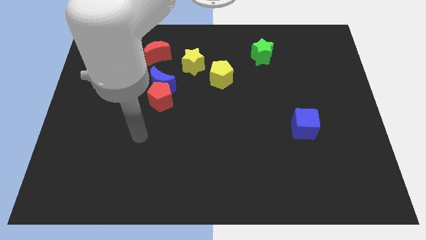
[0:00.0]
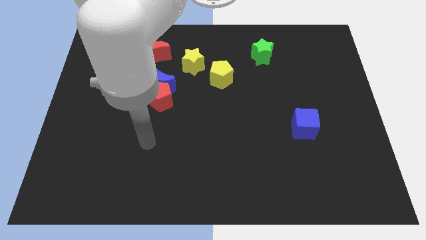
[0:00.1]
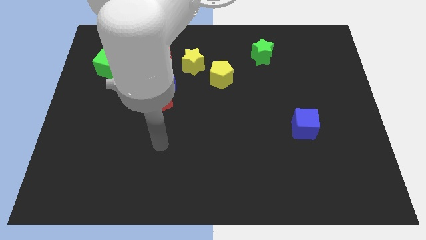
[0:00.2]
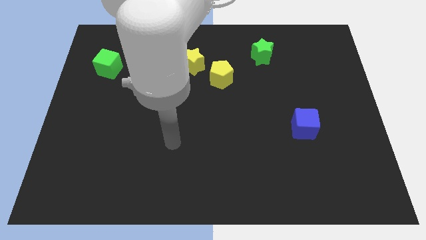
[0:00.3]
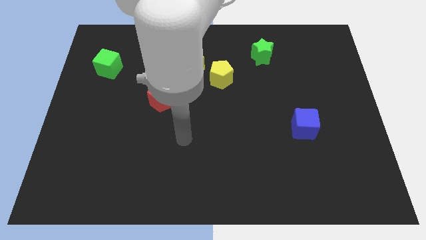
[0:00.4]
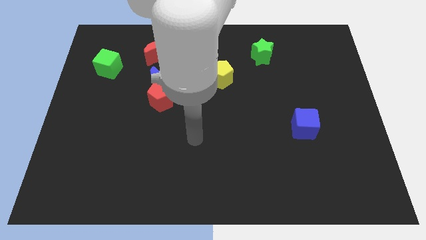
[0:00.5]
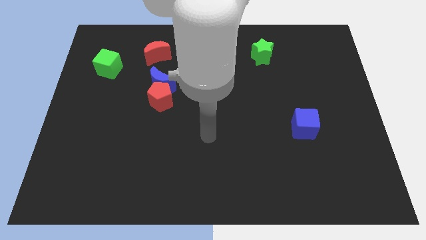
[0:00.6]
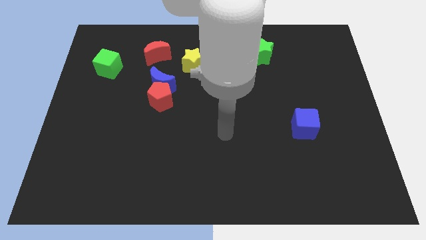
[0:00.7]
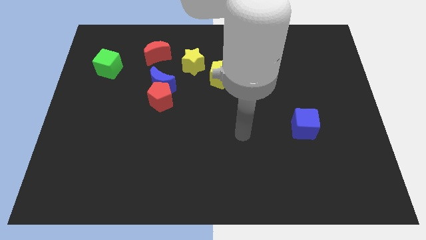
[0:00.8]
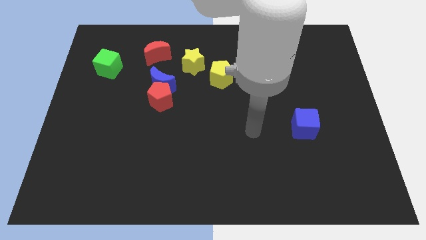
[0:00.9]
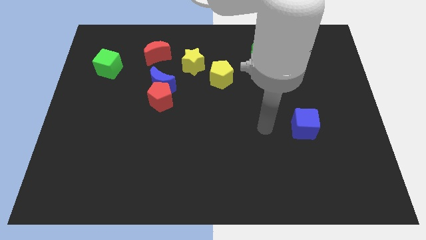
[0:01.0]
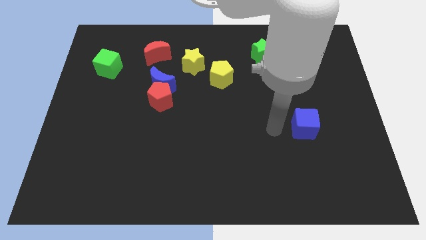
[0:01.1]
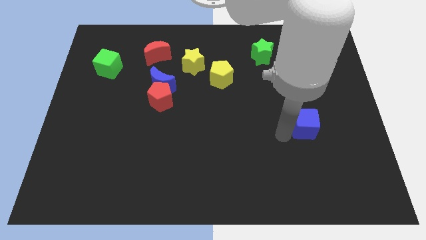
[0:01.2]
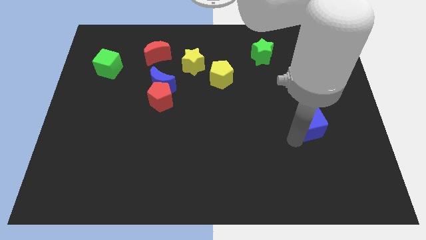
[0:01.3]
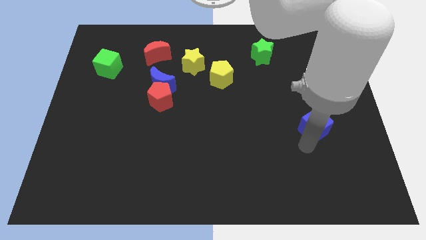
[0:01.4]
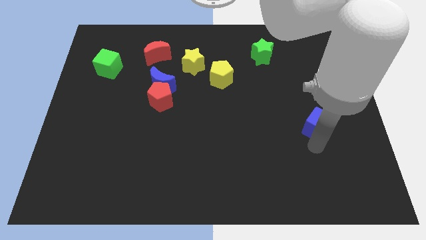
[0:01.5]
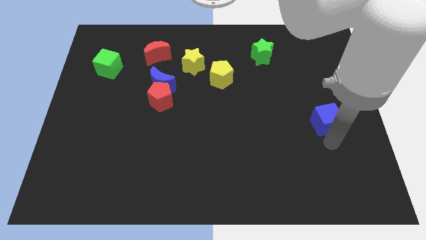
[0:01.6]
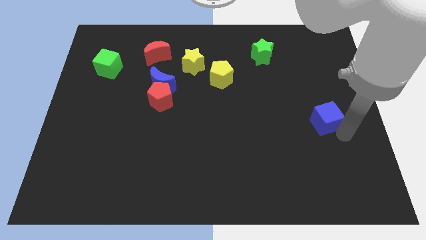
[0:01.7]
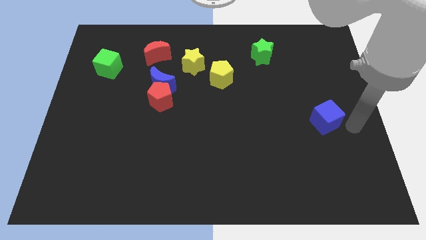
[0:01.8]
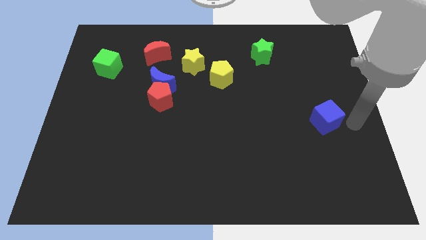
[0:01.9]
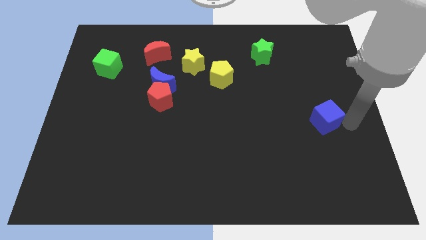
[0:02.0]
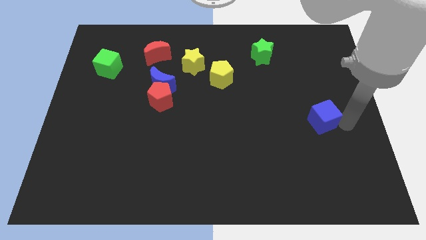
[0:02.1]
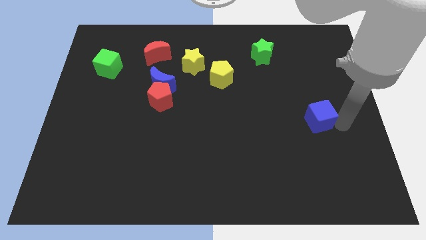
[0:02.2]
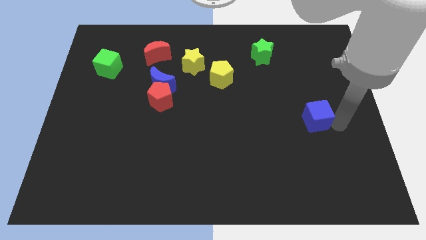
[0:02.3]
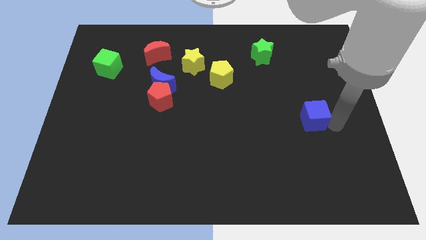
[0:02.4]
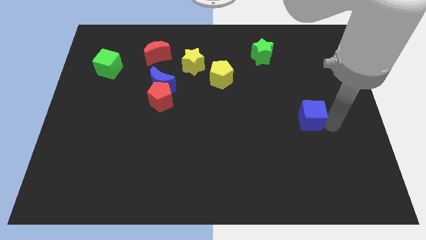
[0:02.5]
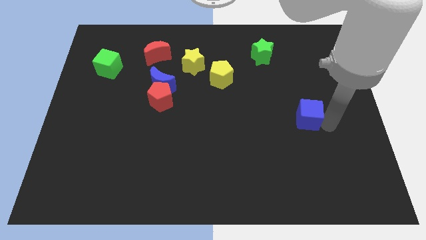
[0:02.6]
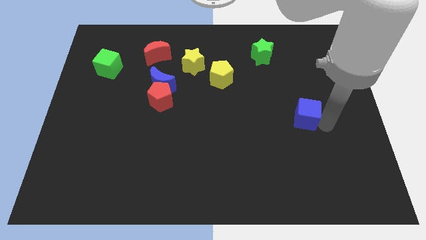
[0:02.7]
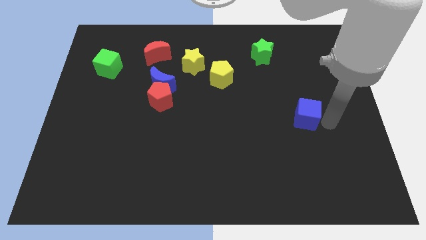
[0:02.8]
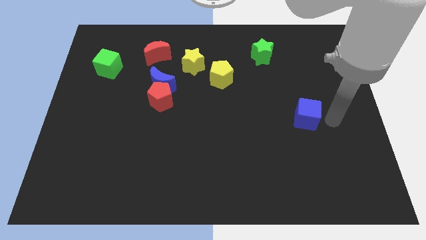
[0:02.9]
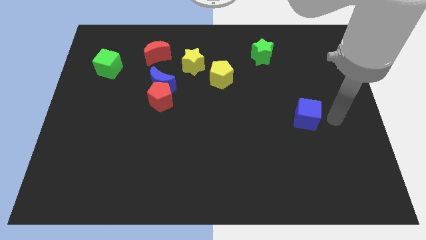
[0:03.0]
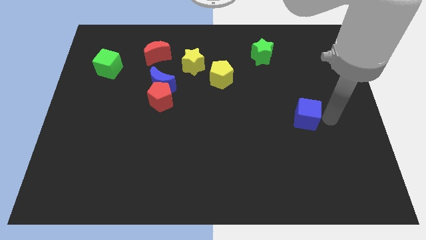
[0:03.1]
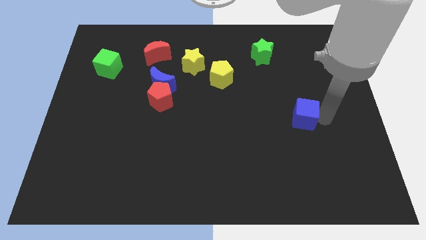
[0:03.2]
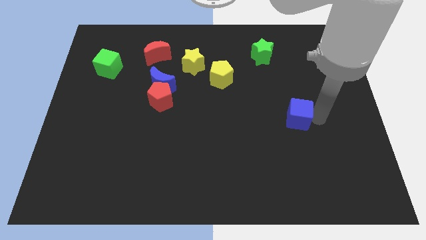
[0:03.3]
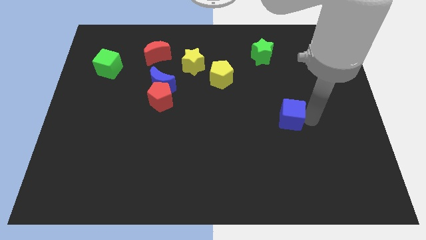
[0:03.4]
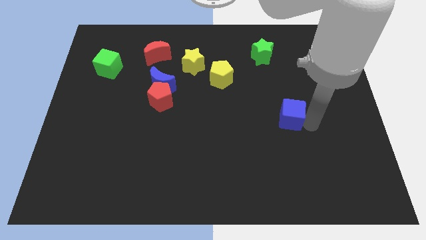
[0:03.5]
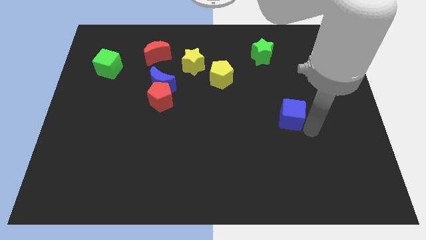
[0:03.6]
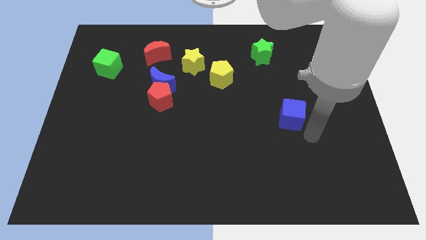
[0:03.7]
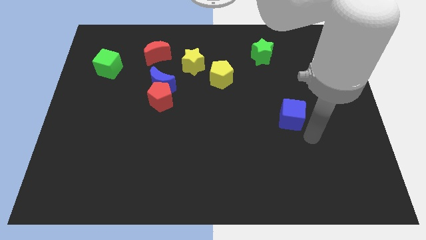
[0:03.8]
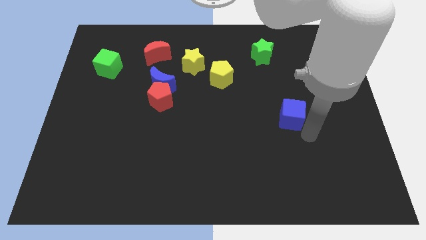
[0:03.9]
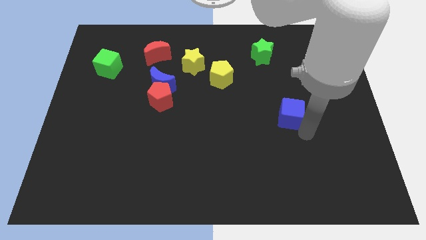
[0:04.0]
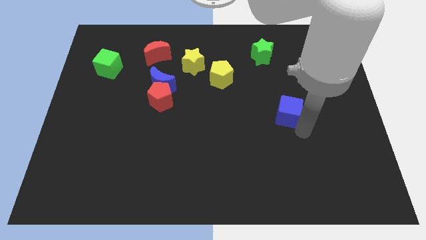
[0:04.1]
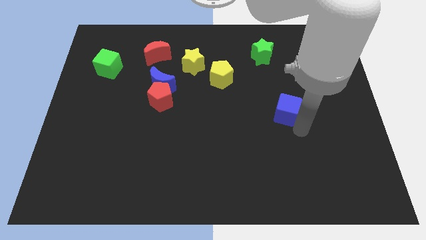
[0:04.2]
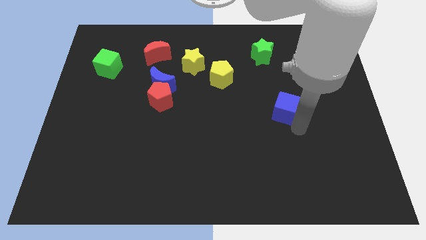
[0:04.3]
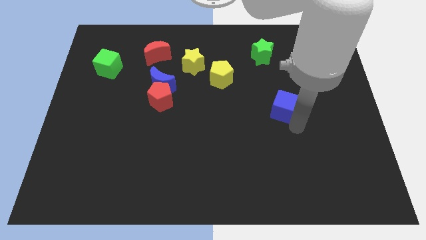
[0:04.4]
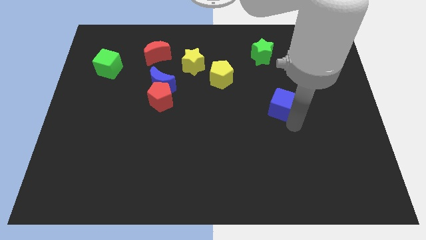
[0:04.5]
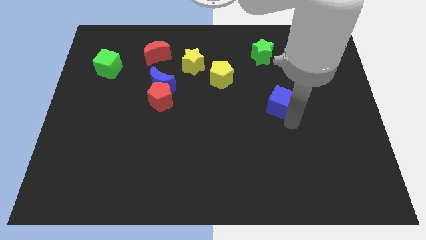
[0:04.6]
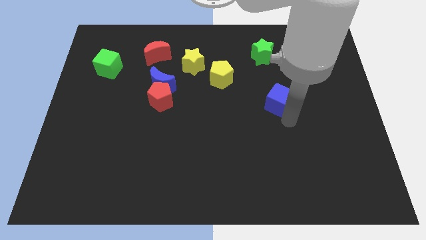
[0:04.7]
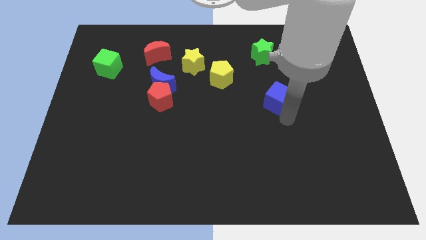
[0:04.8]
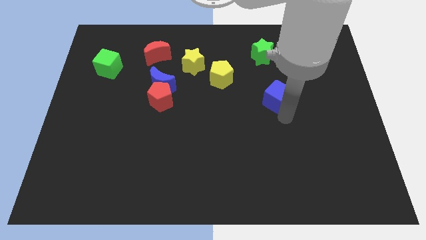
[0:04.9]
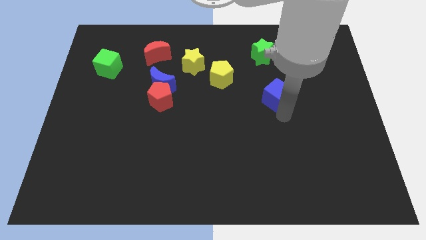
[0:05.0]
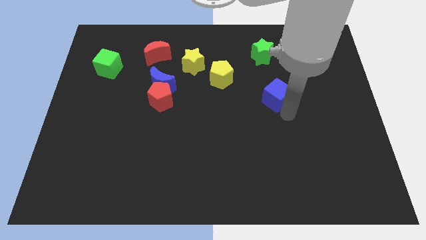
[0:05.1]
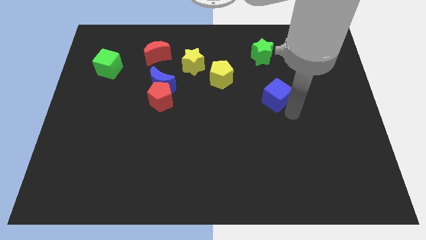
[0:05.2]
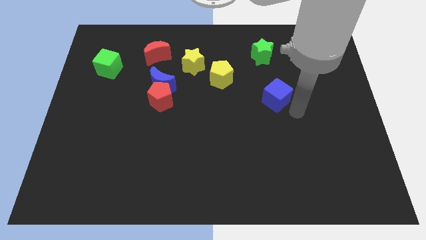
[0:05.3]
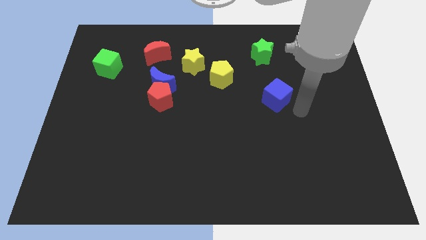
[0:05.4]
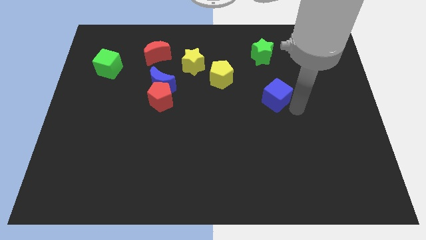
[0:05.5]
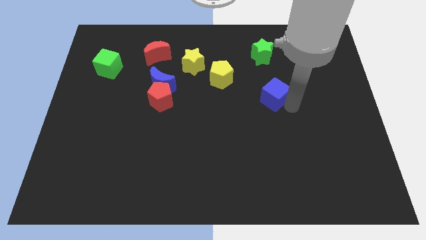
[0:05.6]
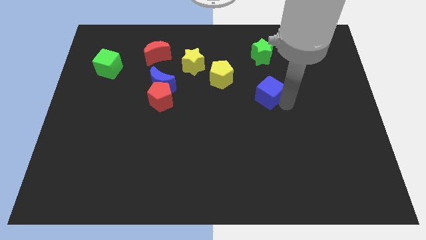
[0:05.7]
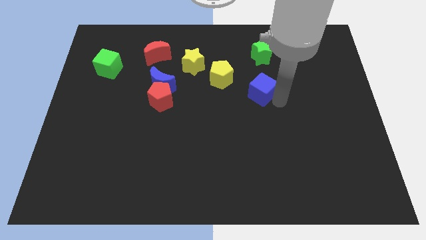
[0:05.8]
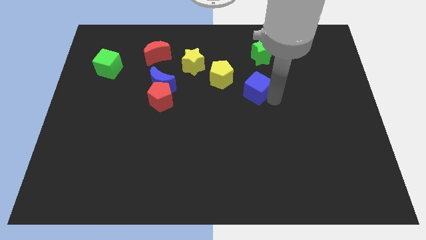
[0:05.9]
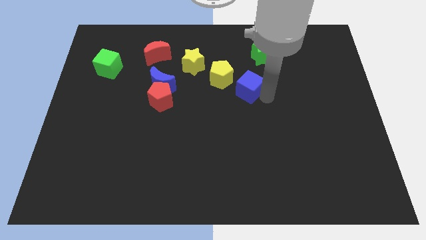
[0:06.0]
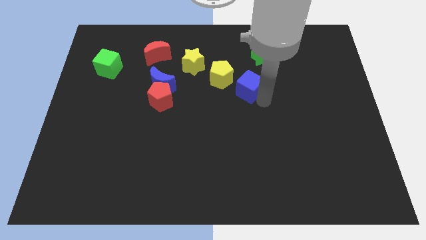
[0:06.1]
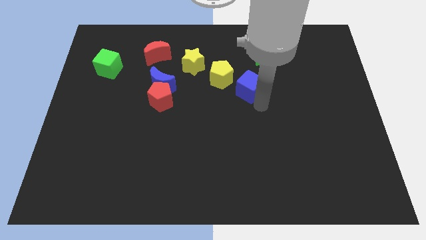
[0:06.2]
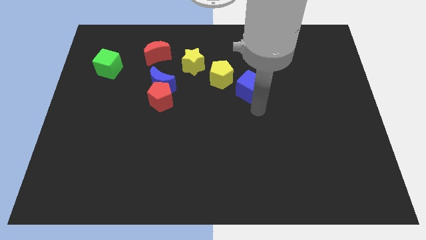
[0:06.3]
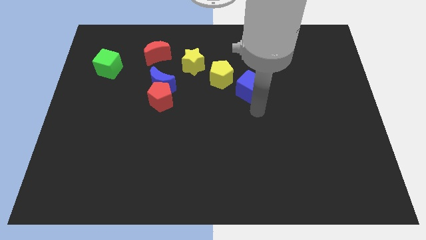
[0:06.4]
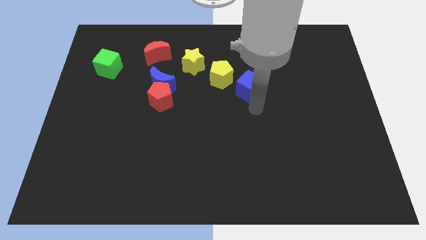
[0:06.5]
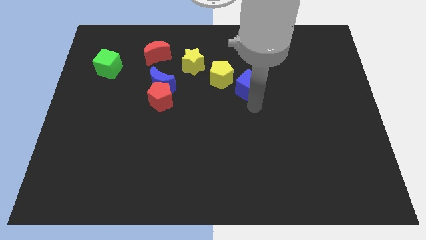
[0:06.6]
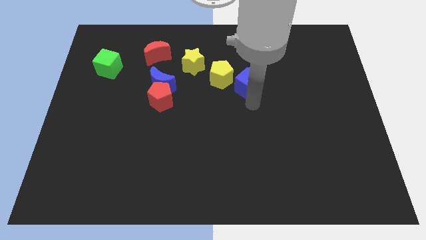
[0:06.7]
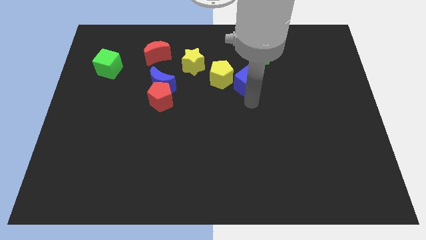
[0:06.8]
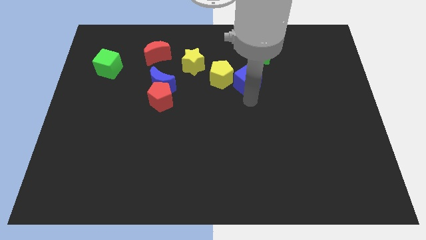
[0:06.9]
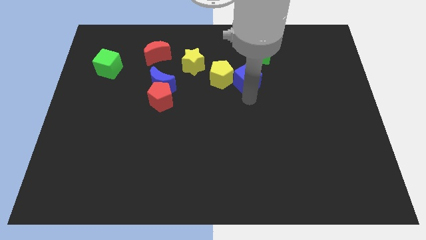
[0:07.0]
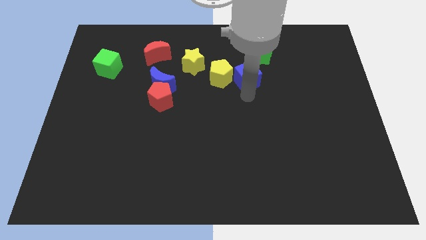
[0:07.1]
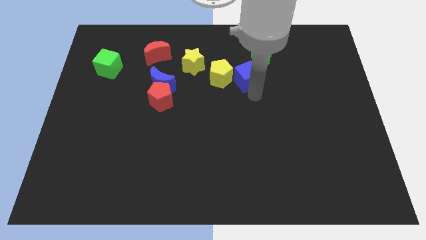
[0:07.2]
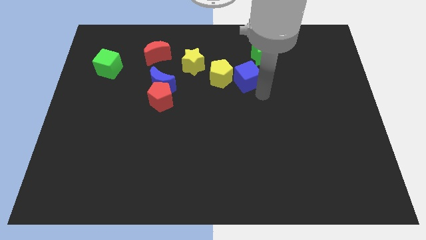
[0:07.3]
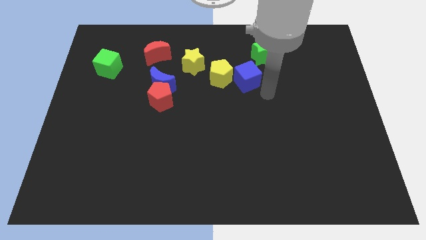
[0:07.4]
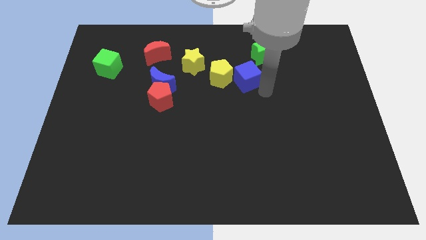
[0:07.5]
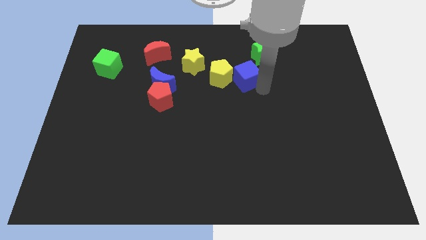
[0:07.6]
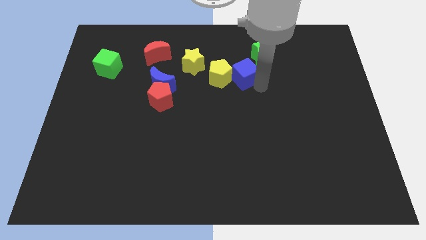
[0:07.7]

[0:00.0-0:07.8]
slide the blue cube diagonally up and to the left

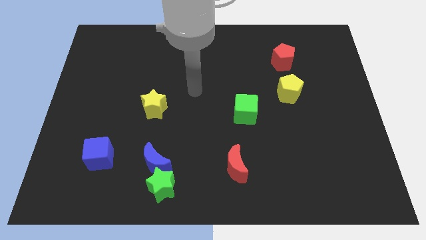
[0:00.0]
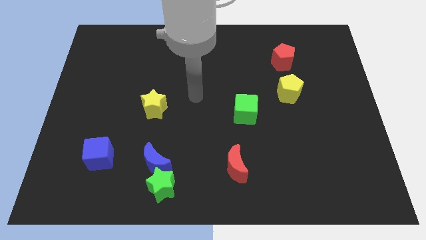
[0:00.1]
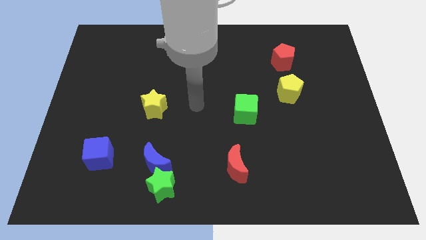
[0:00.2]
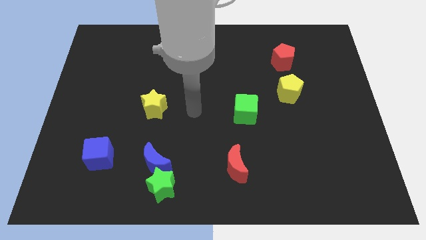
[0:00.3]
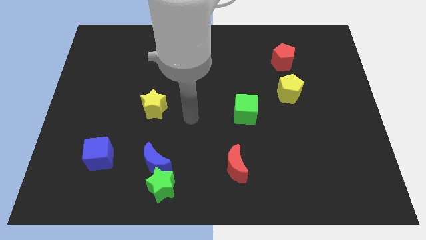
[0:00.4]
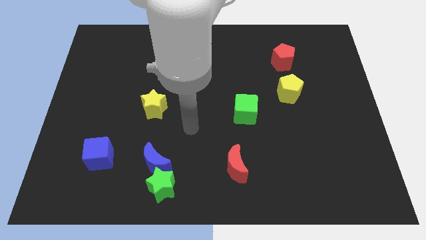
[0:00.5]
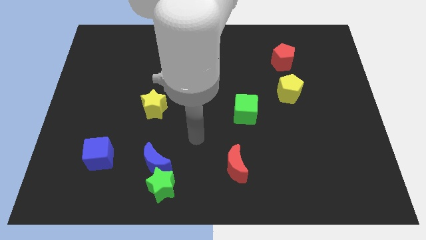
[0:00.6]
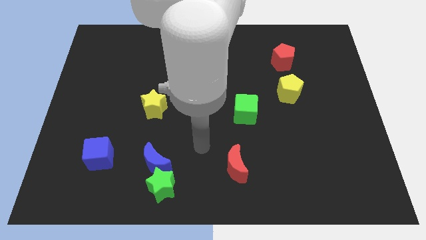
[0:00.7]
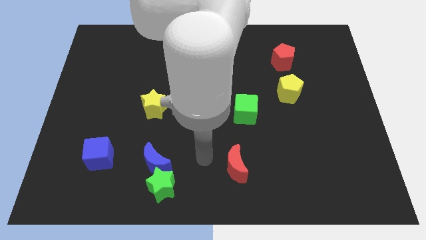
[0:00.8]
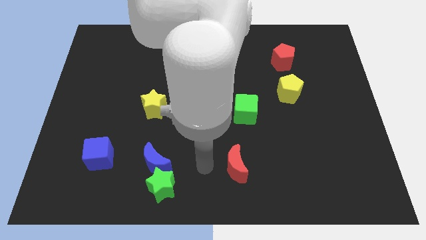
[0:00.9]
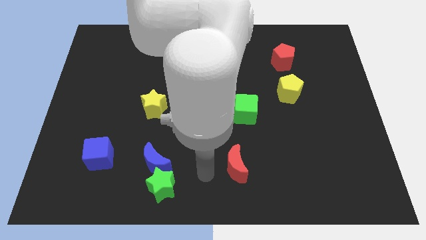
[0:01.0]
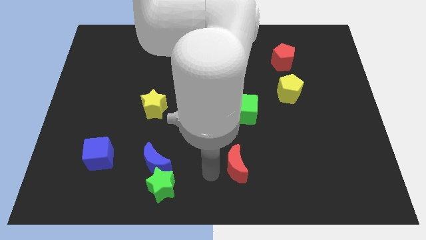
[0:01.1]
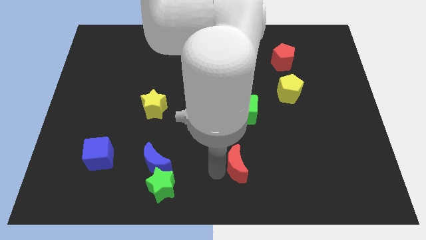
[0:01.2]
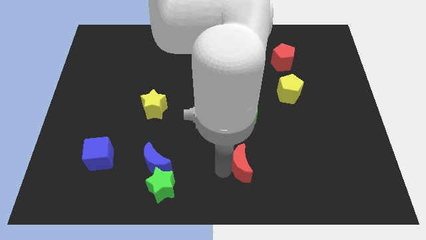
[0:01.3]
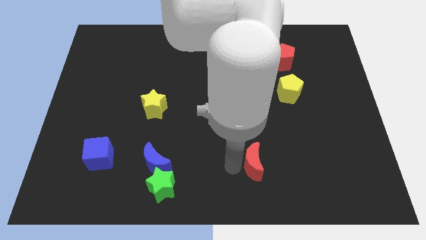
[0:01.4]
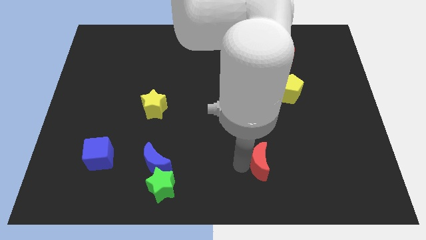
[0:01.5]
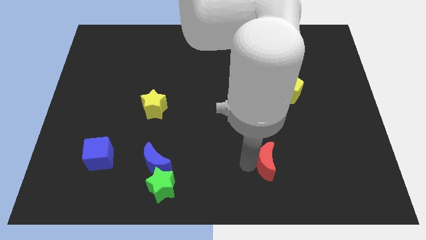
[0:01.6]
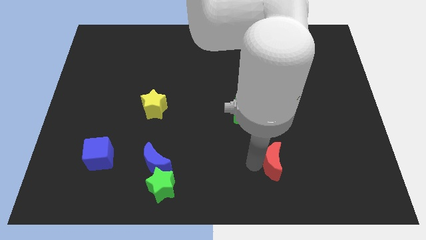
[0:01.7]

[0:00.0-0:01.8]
push the red moon a bit right
